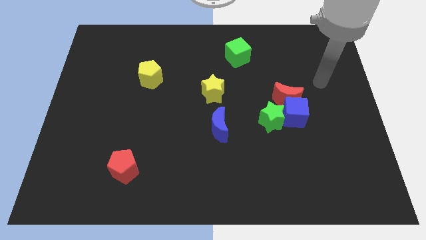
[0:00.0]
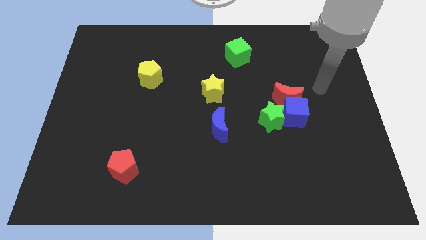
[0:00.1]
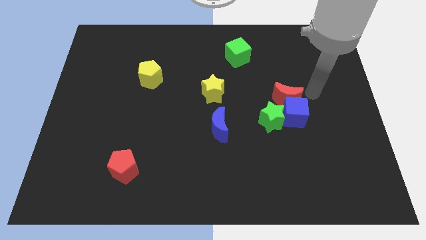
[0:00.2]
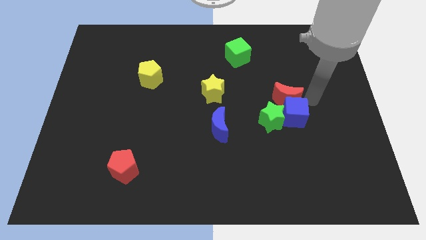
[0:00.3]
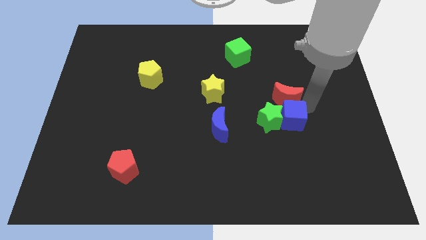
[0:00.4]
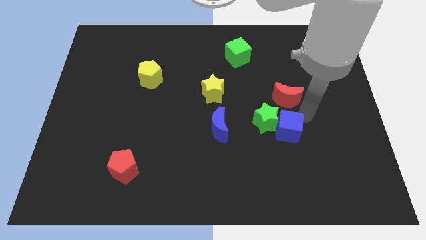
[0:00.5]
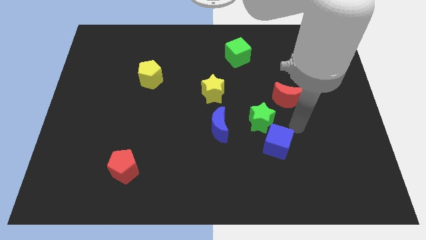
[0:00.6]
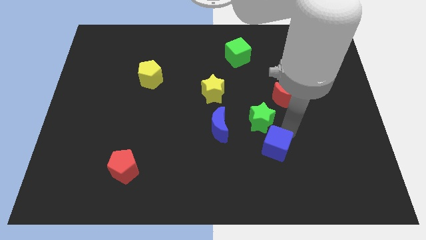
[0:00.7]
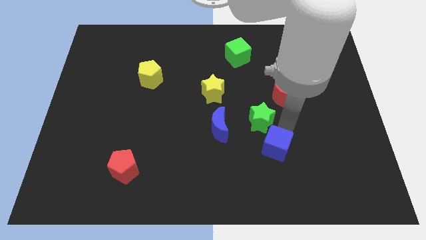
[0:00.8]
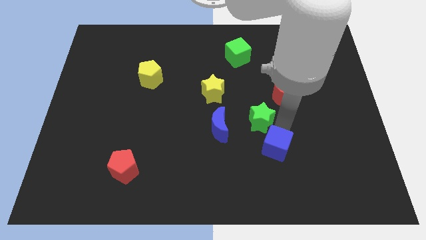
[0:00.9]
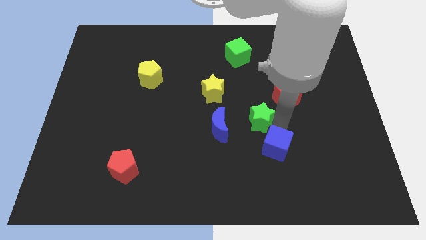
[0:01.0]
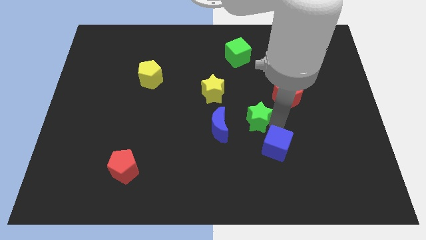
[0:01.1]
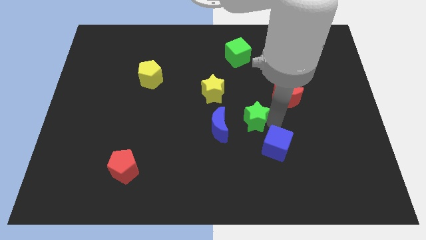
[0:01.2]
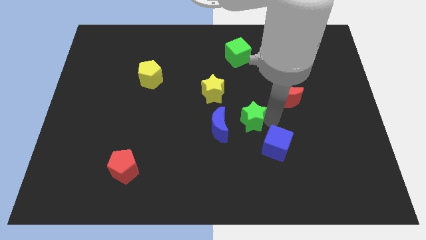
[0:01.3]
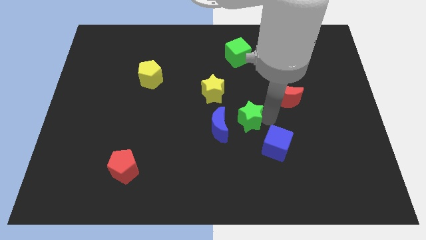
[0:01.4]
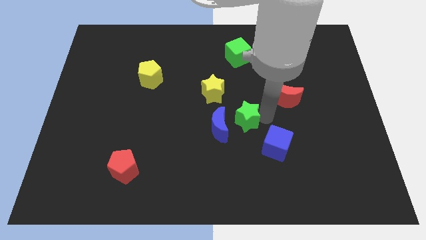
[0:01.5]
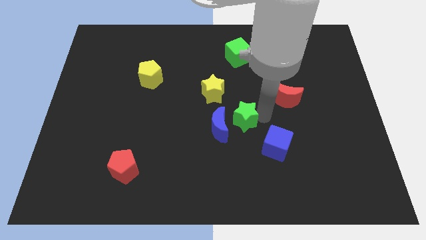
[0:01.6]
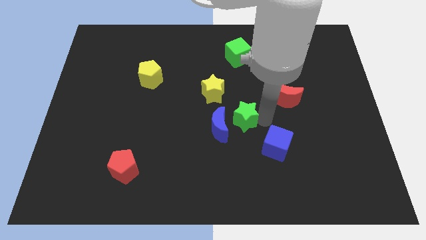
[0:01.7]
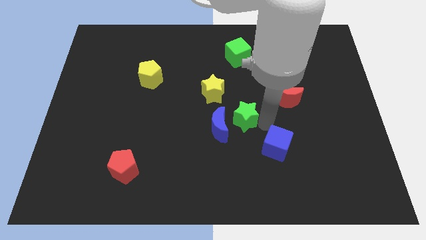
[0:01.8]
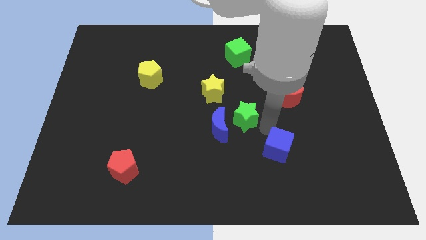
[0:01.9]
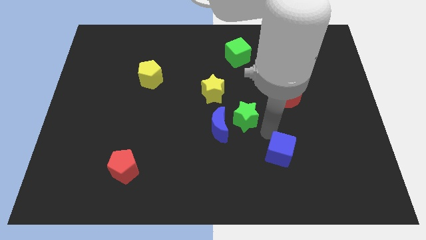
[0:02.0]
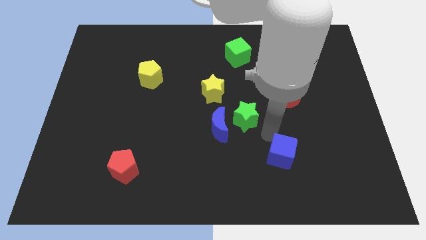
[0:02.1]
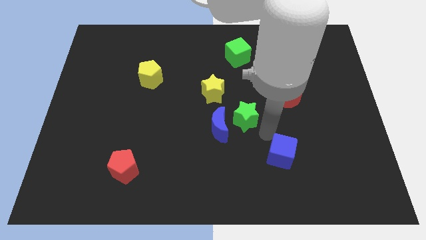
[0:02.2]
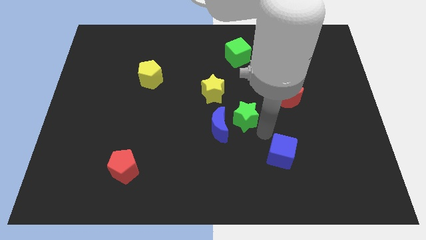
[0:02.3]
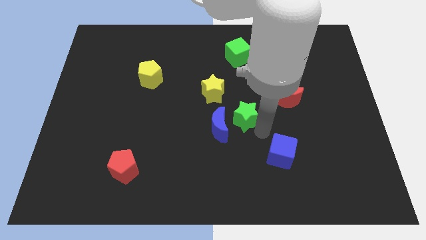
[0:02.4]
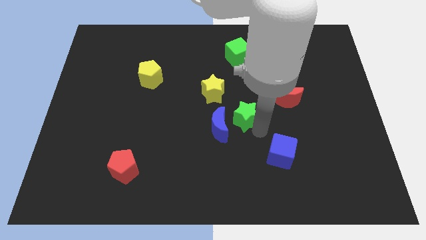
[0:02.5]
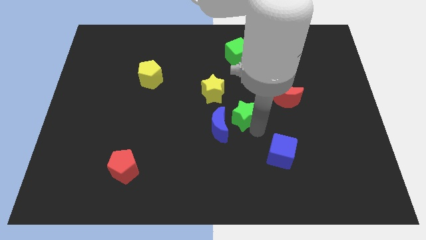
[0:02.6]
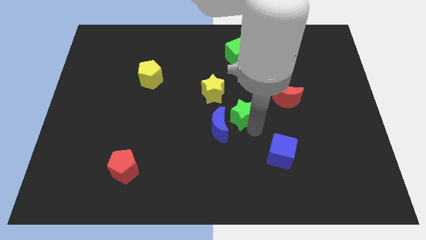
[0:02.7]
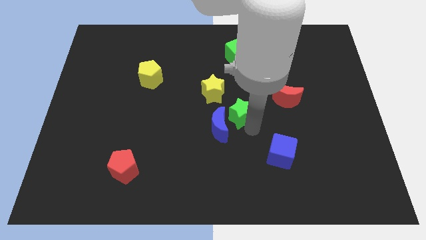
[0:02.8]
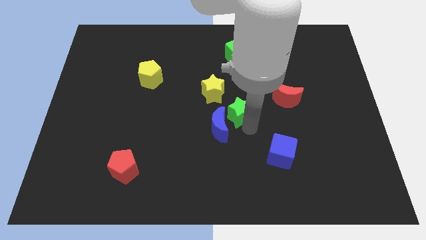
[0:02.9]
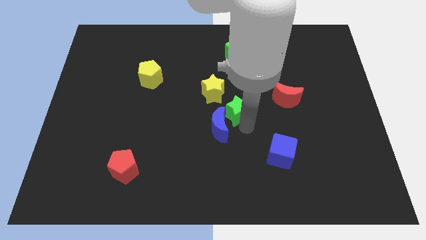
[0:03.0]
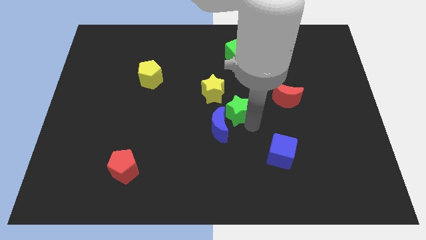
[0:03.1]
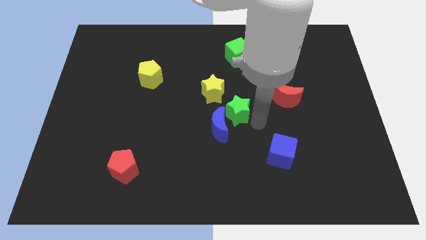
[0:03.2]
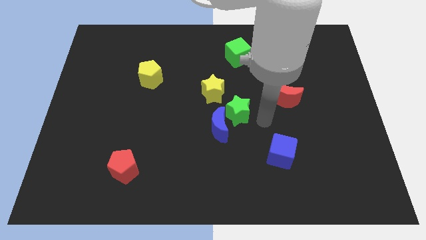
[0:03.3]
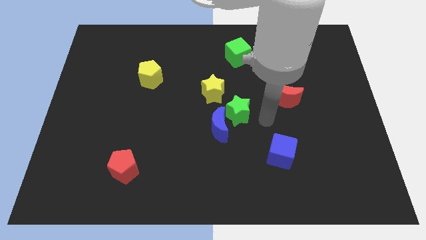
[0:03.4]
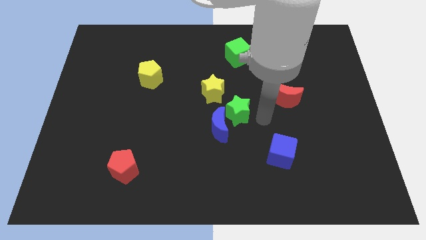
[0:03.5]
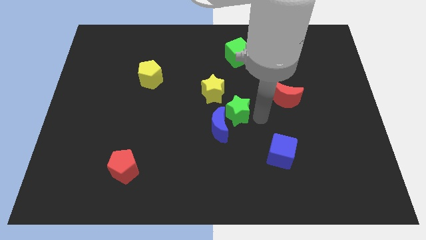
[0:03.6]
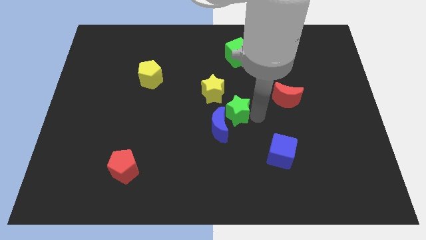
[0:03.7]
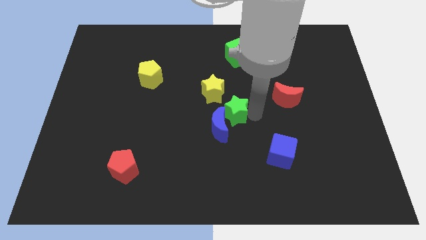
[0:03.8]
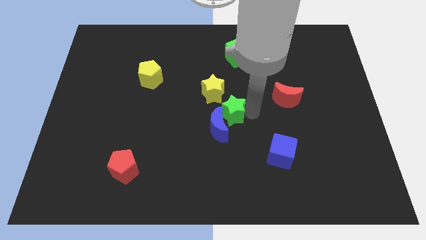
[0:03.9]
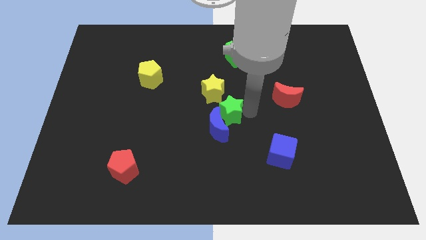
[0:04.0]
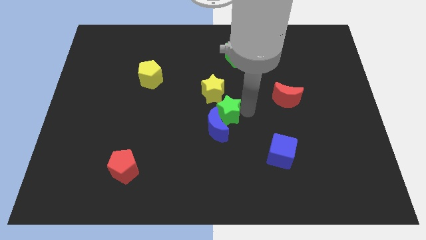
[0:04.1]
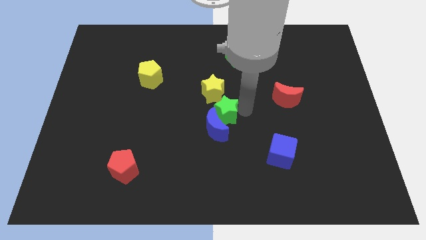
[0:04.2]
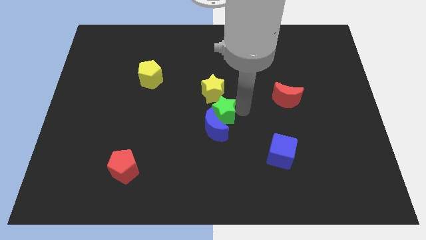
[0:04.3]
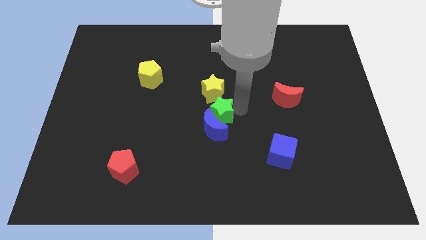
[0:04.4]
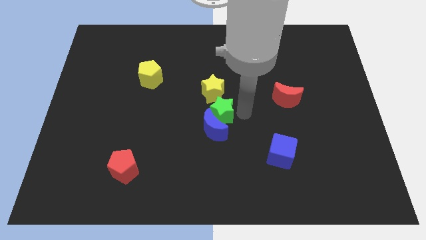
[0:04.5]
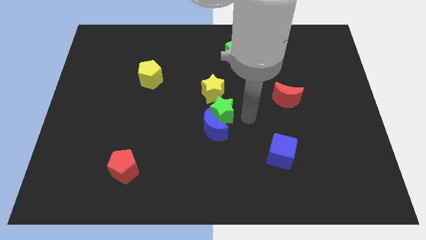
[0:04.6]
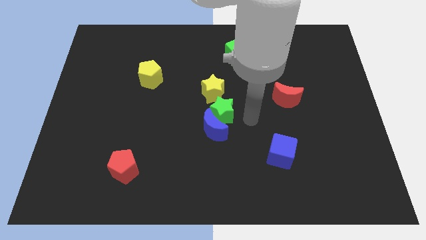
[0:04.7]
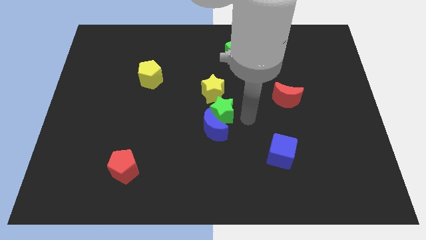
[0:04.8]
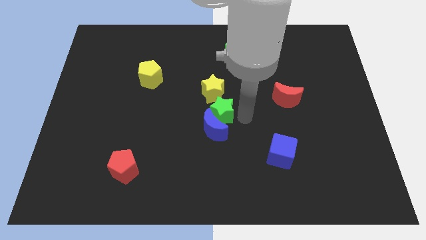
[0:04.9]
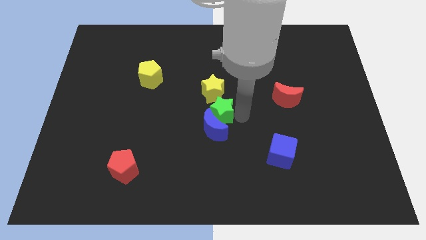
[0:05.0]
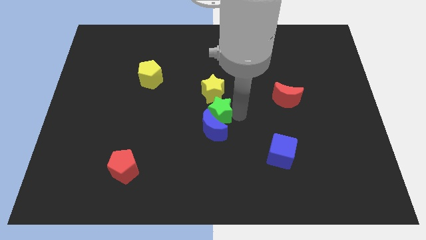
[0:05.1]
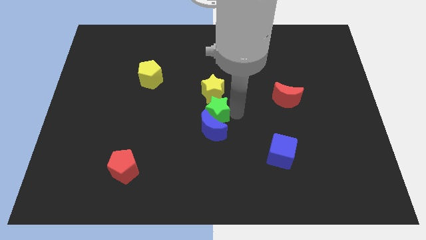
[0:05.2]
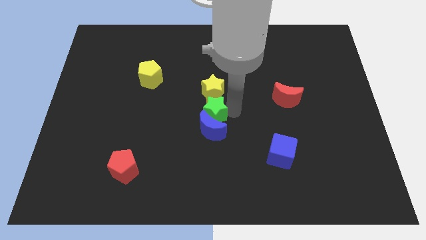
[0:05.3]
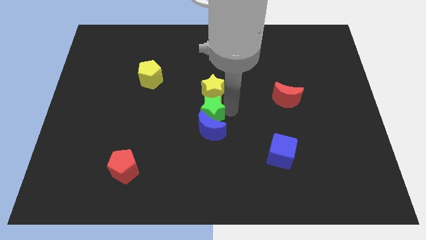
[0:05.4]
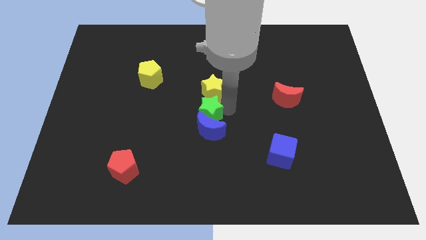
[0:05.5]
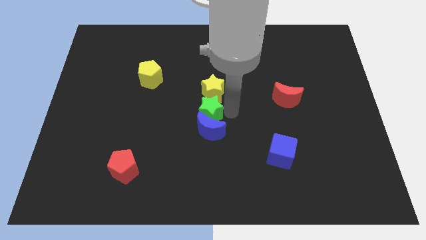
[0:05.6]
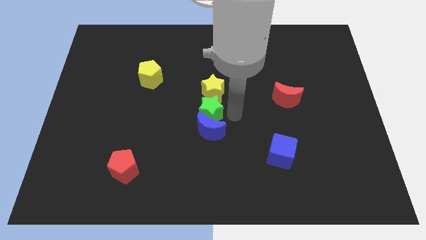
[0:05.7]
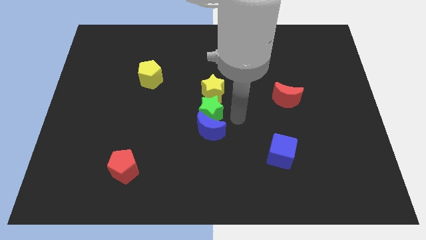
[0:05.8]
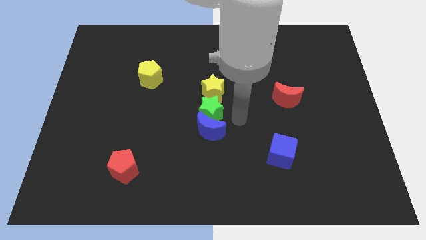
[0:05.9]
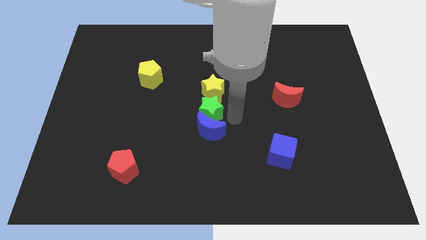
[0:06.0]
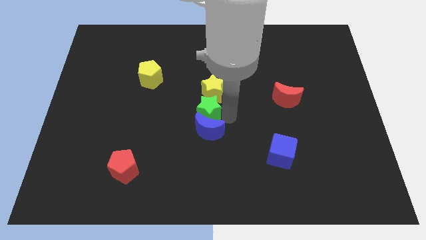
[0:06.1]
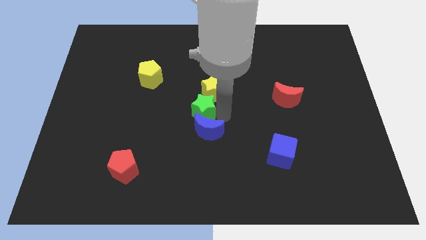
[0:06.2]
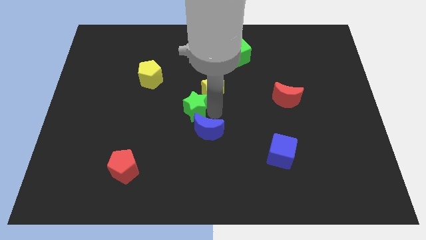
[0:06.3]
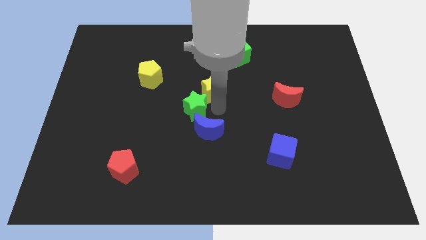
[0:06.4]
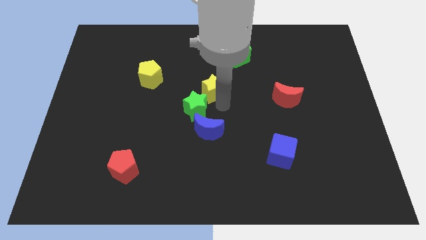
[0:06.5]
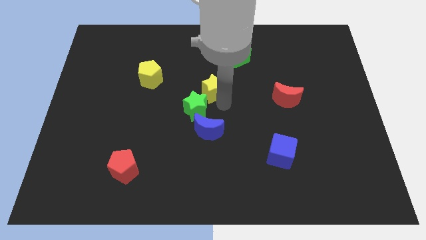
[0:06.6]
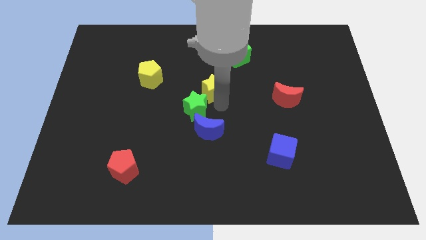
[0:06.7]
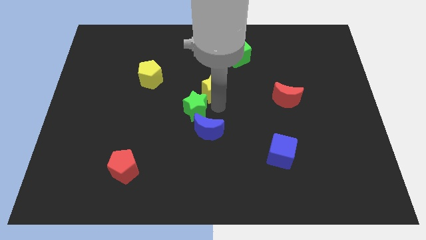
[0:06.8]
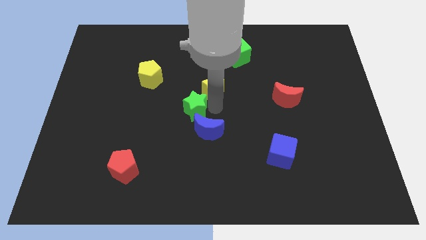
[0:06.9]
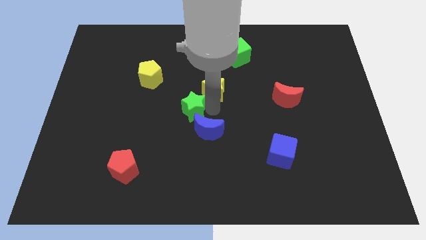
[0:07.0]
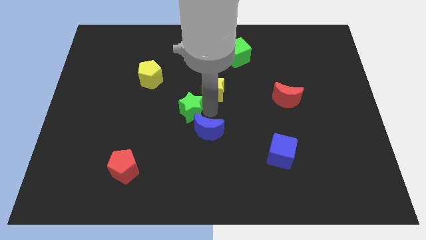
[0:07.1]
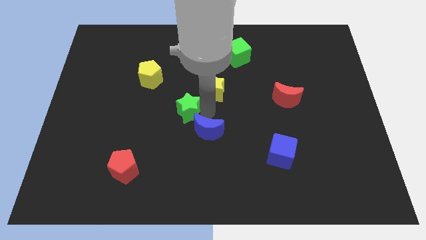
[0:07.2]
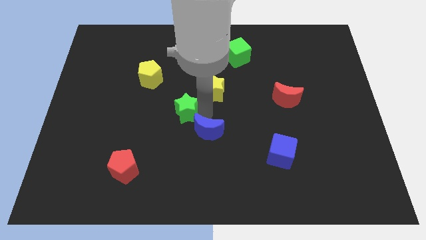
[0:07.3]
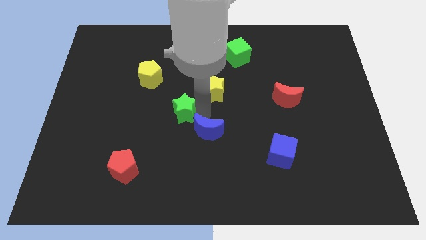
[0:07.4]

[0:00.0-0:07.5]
move the green star left

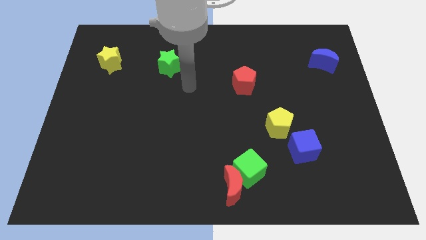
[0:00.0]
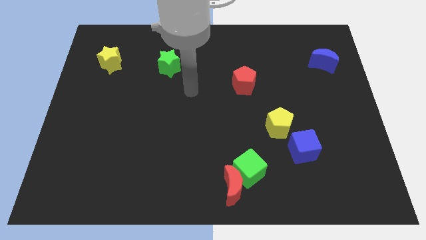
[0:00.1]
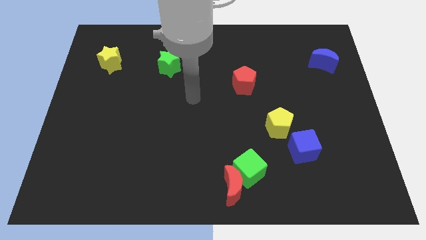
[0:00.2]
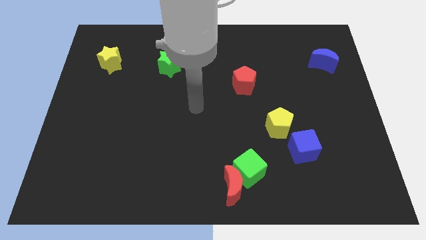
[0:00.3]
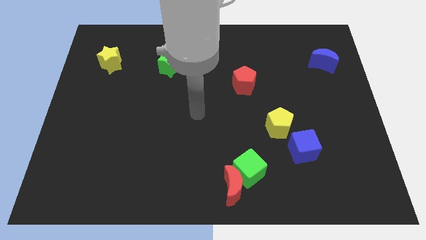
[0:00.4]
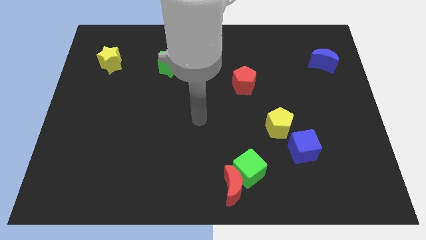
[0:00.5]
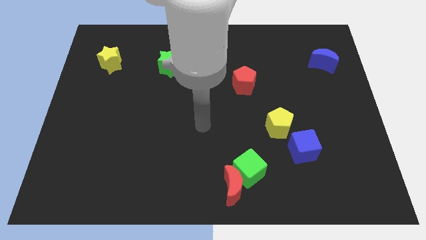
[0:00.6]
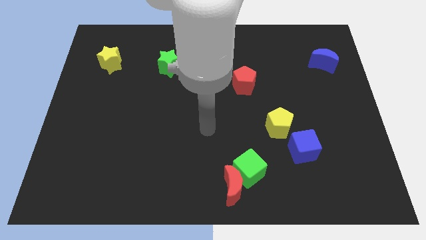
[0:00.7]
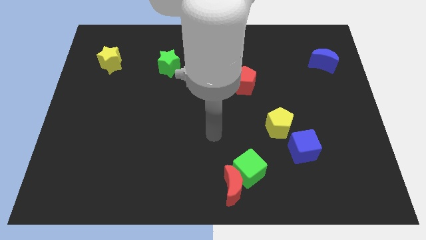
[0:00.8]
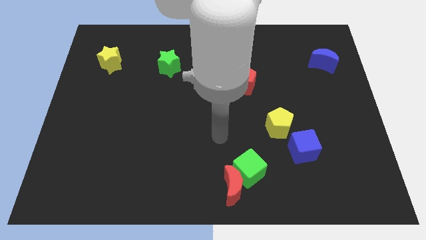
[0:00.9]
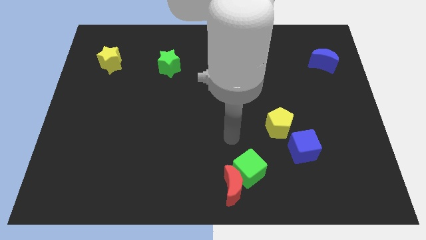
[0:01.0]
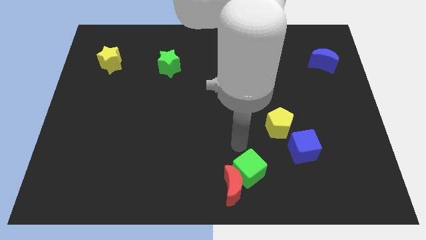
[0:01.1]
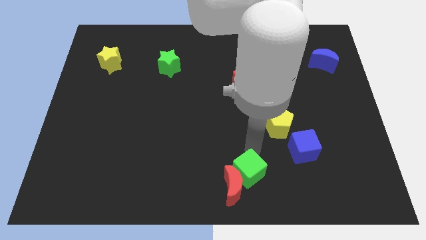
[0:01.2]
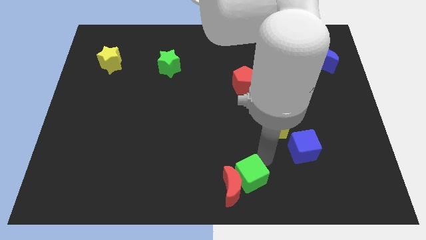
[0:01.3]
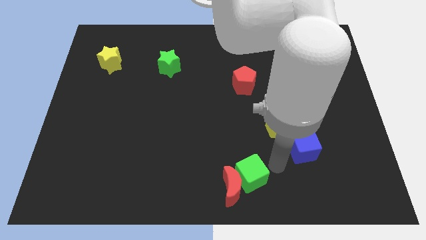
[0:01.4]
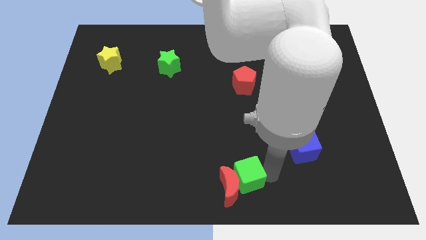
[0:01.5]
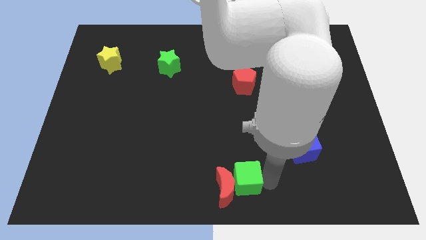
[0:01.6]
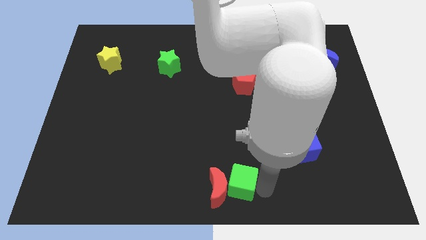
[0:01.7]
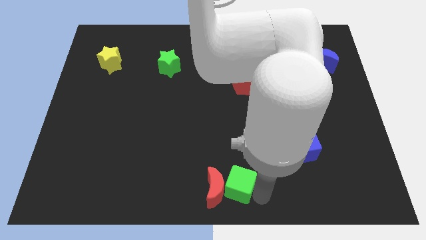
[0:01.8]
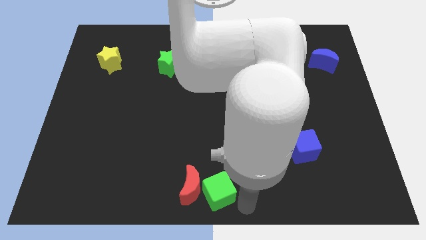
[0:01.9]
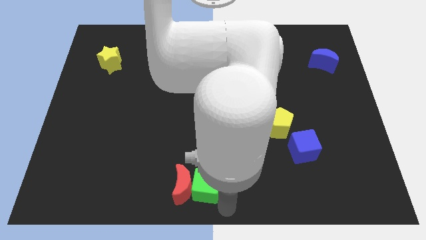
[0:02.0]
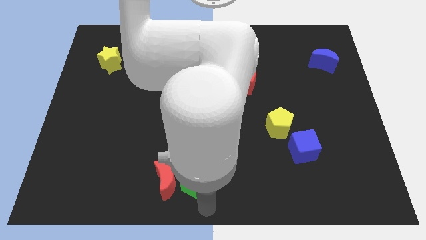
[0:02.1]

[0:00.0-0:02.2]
move the red moon upwards and then left somewhat
